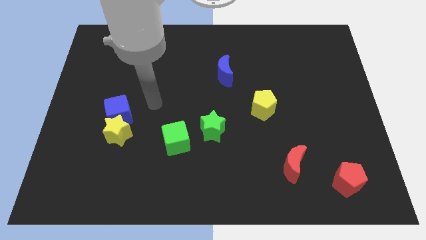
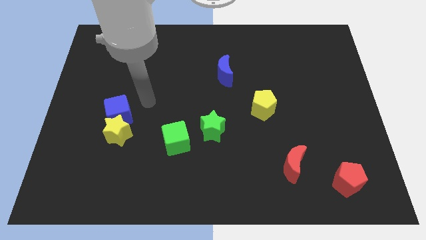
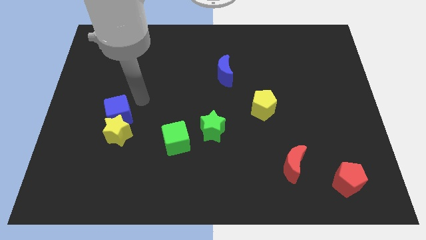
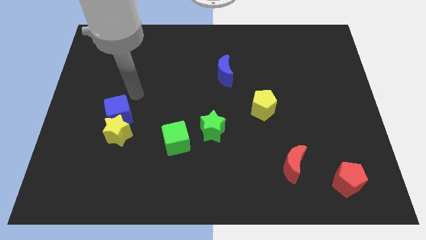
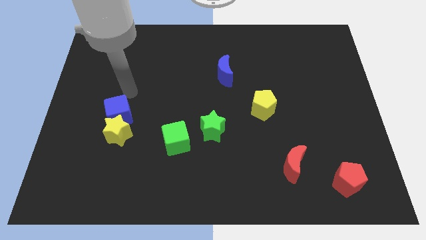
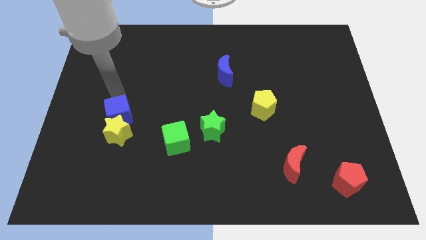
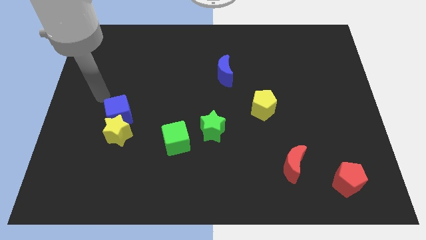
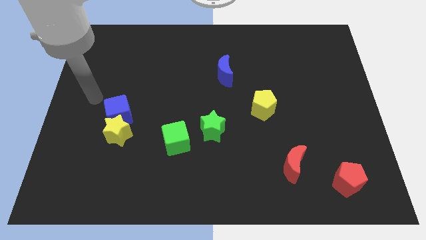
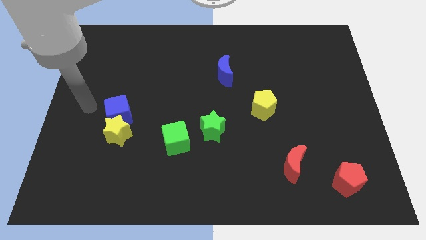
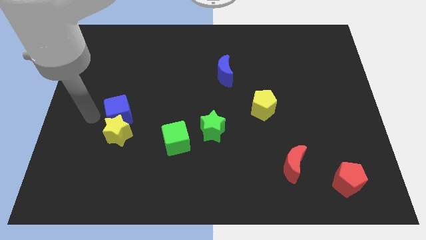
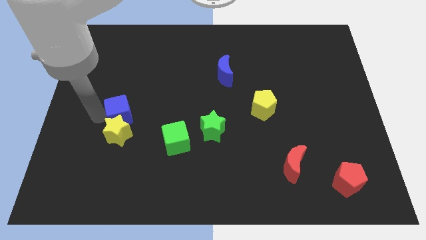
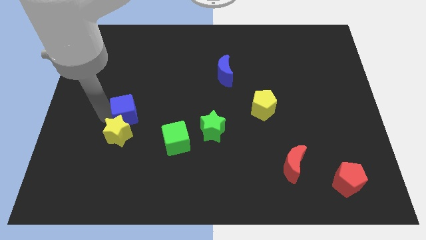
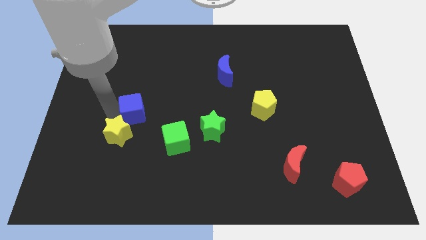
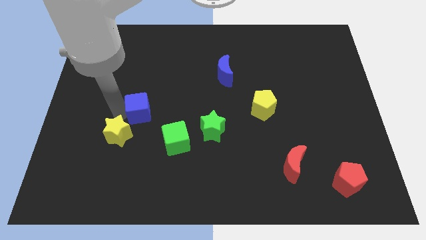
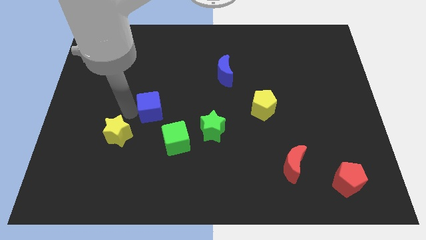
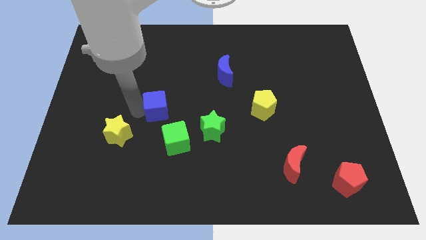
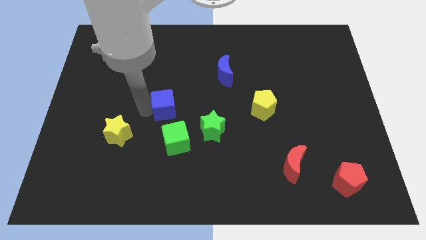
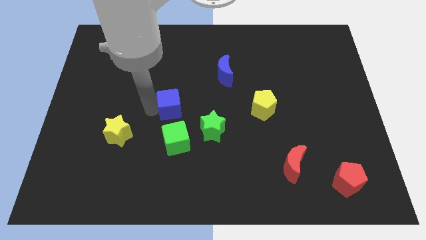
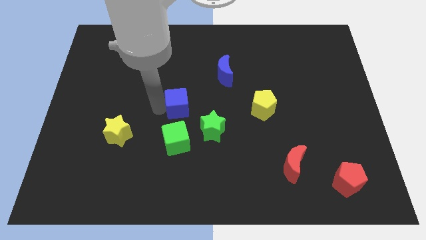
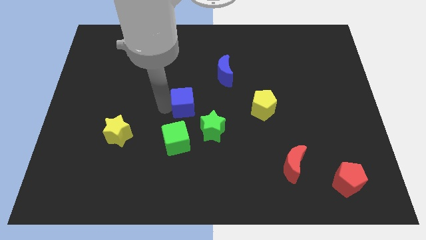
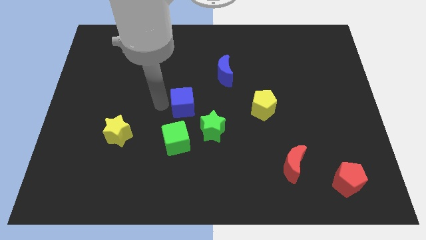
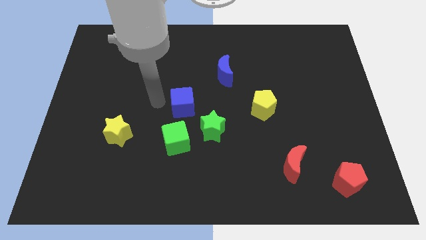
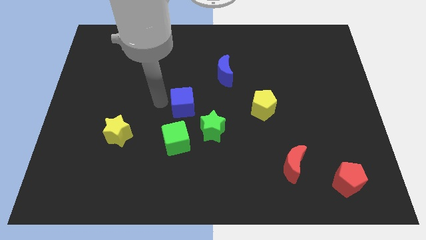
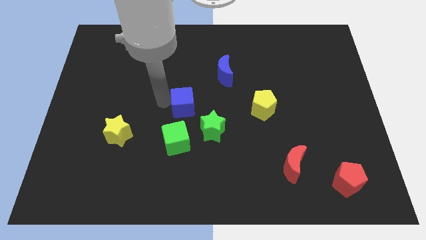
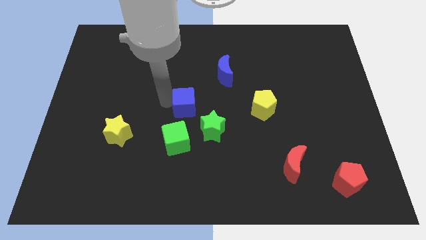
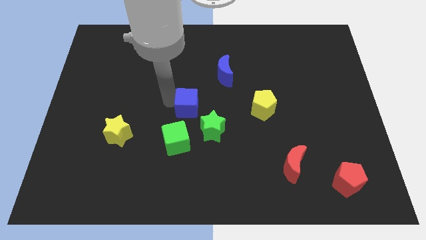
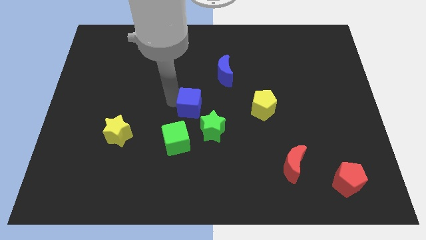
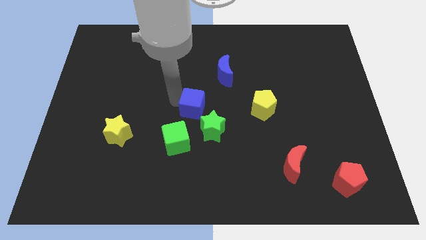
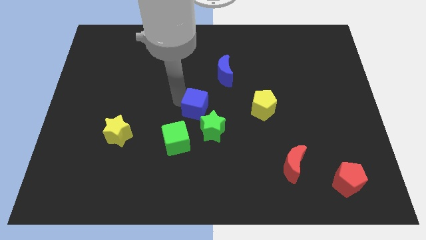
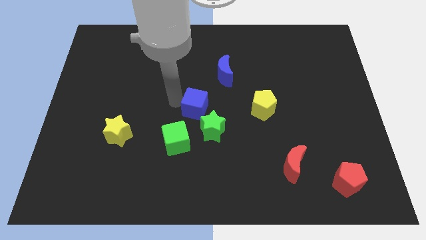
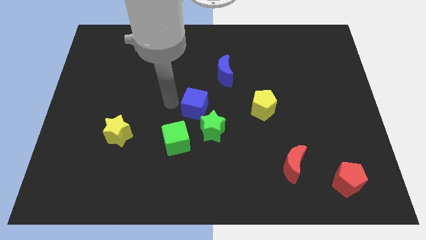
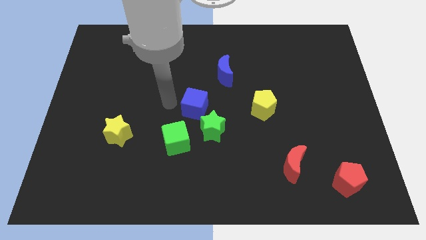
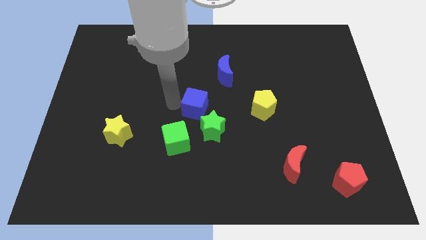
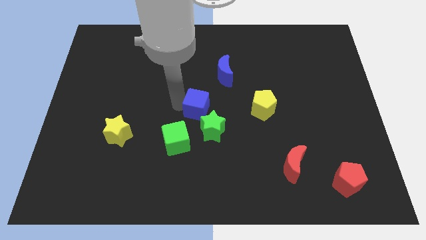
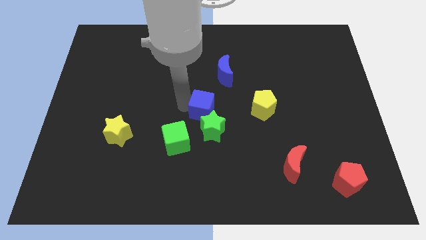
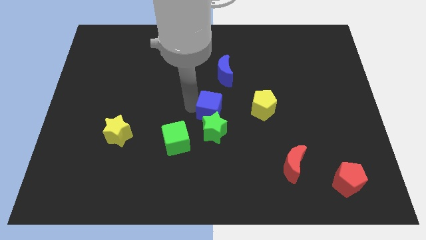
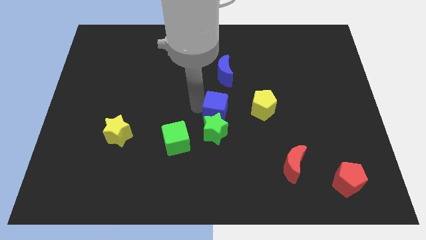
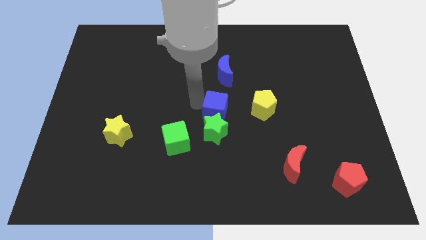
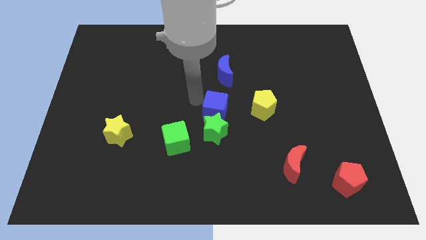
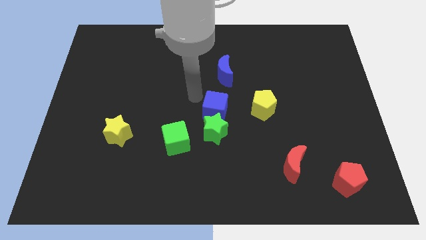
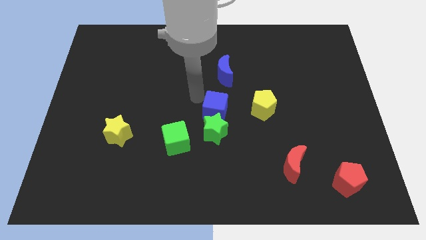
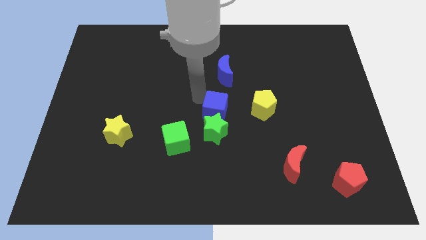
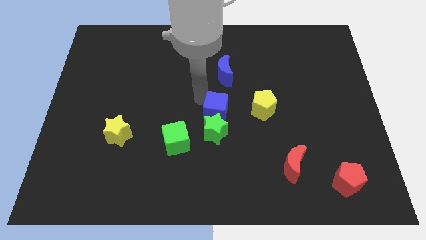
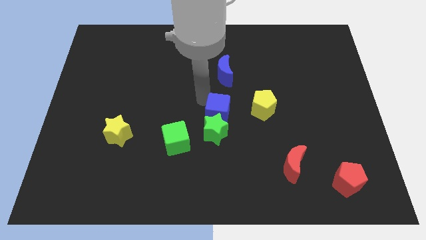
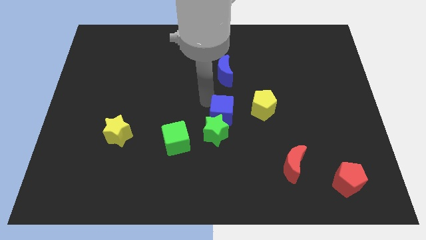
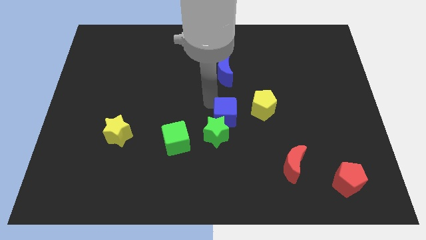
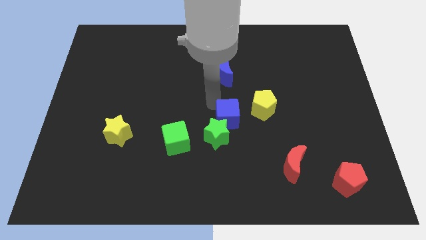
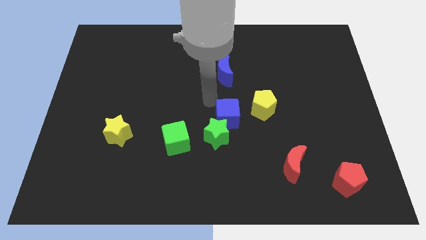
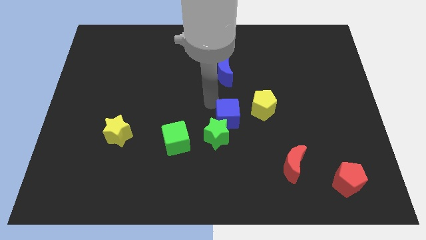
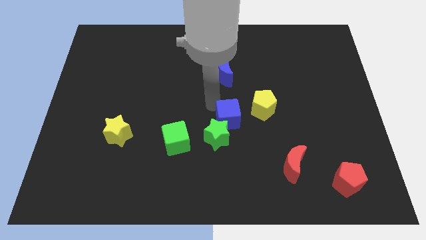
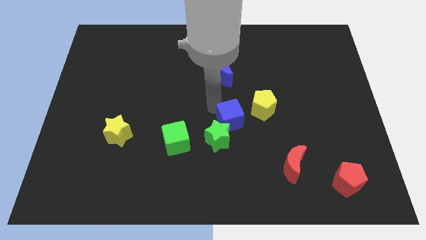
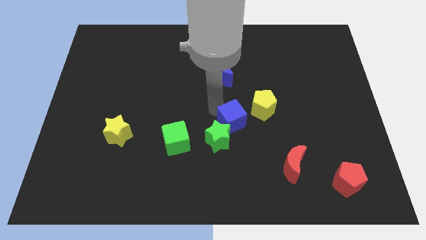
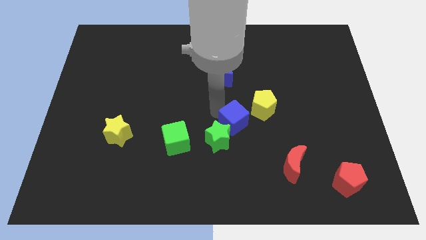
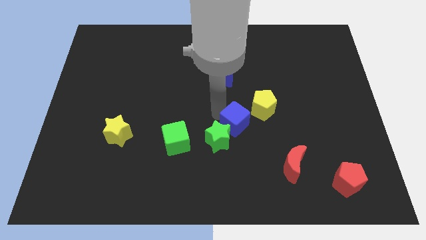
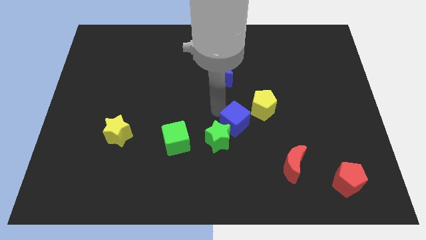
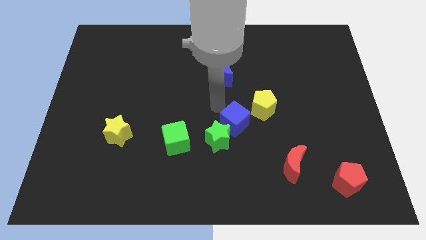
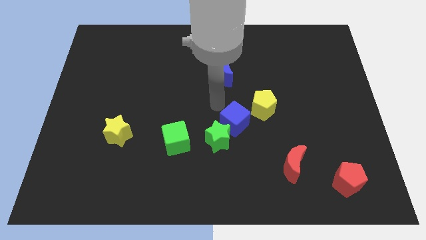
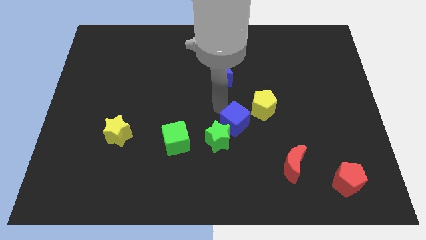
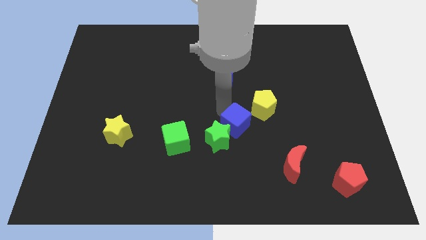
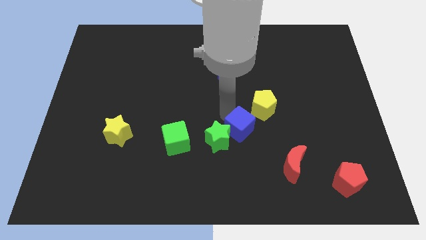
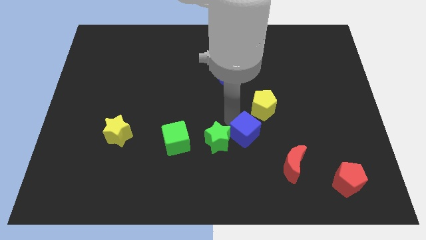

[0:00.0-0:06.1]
put the blue cube diagonally up and to the left of the red moon

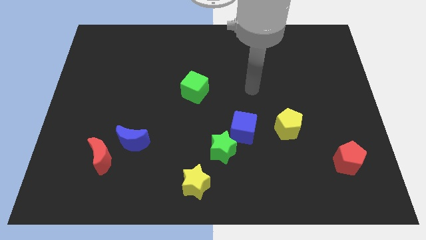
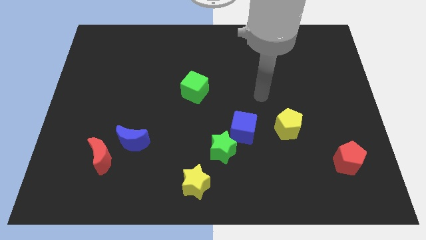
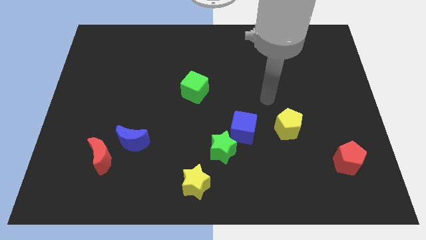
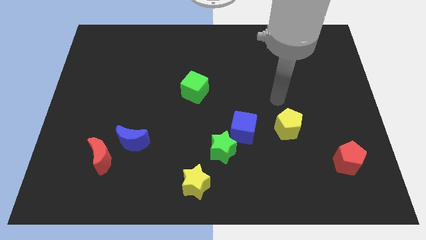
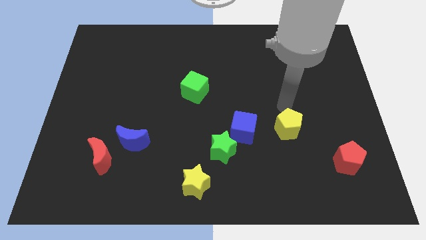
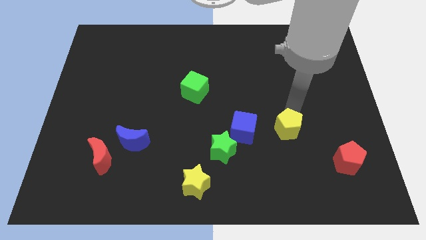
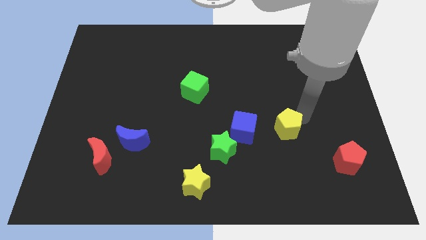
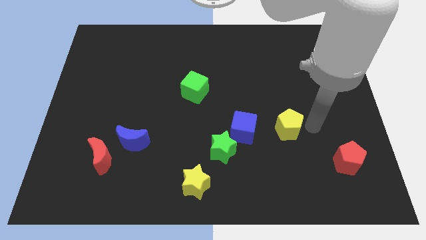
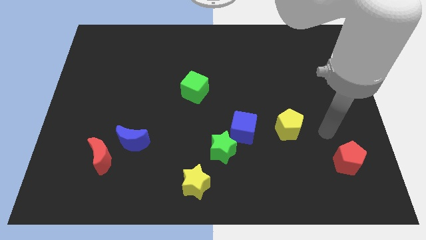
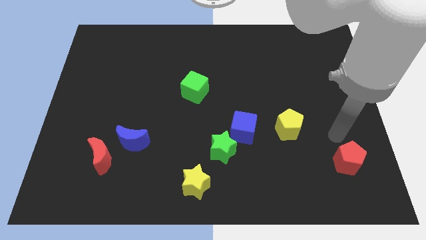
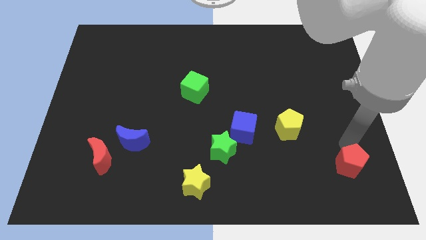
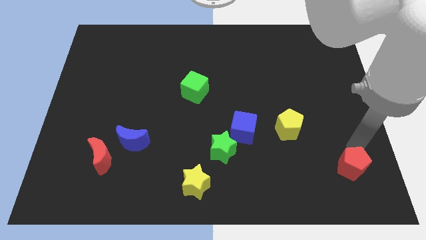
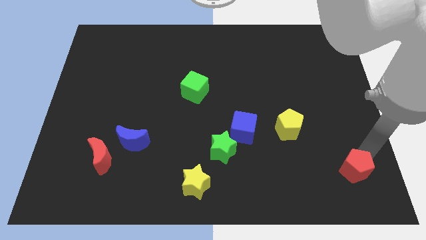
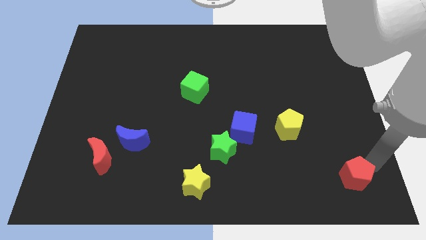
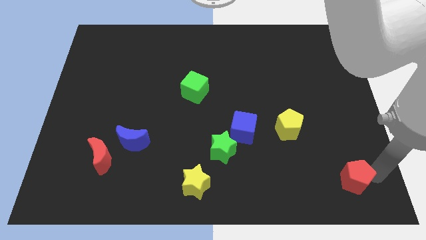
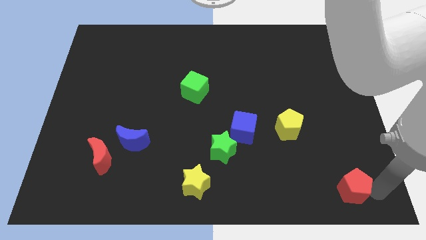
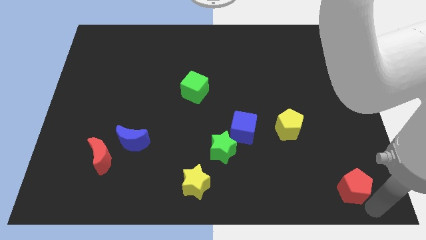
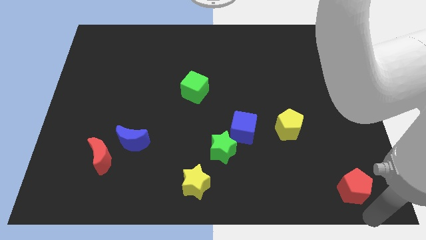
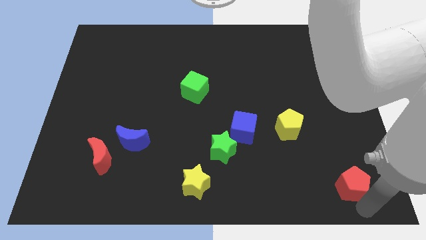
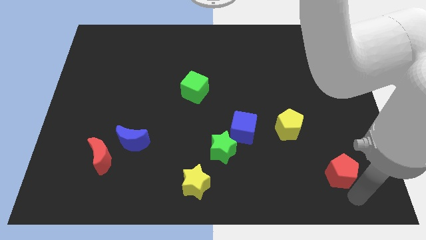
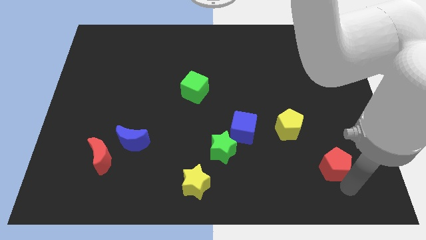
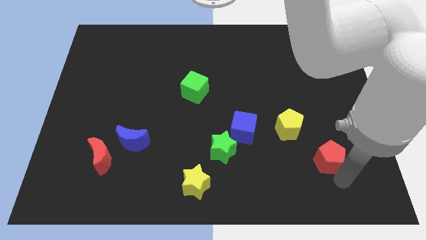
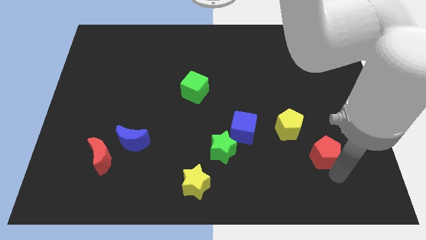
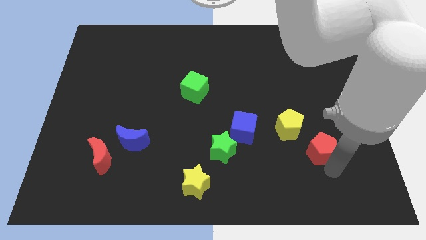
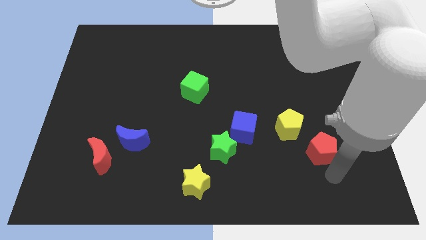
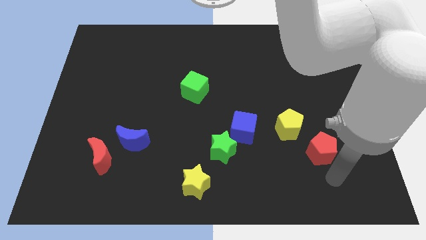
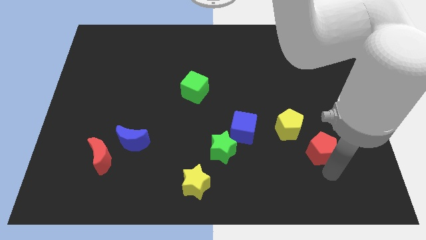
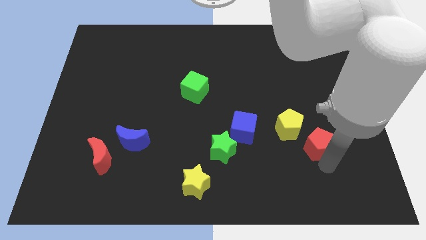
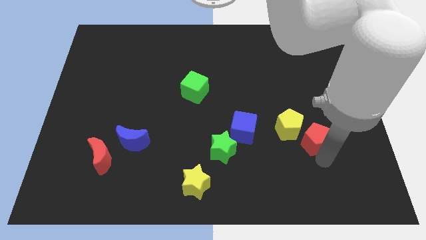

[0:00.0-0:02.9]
slide the red pentagon right of the blue cube
